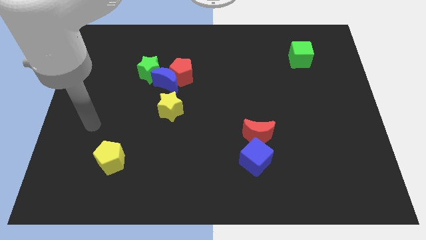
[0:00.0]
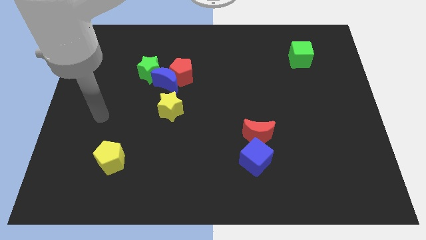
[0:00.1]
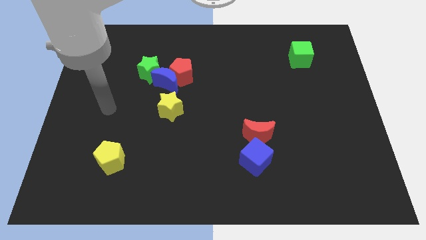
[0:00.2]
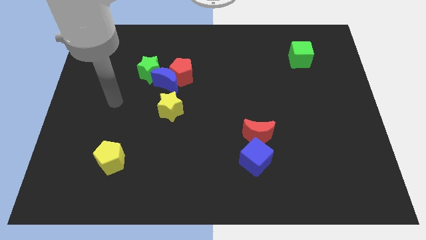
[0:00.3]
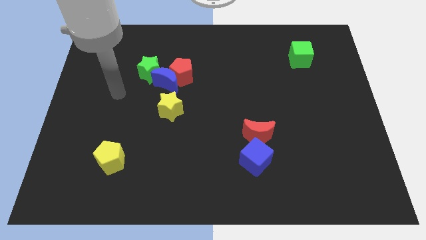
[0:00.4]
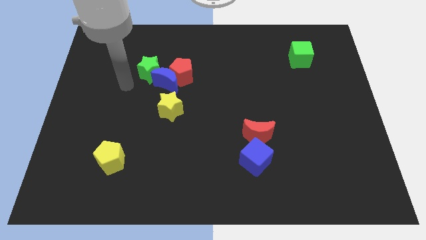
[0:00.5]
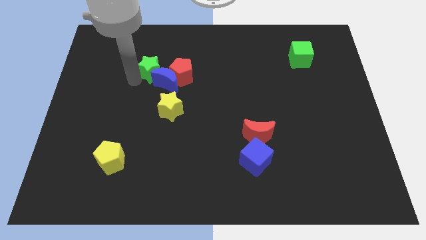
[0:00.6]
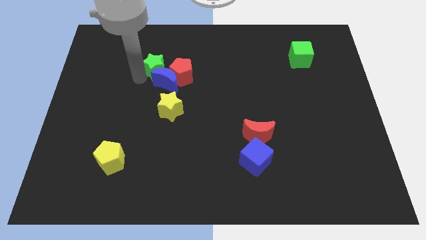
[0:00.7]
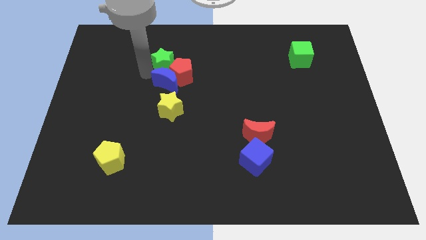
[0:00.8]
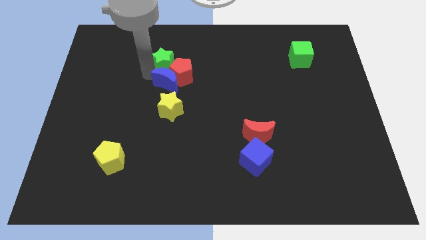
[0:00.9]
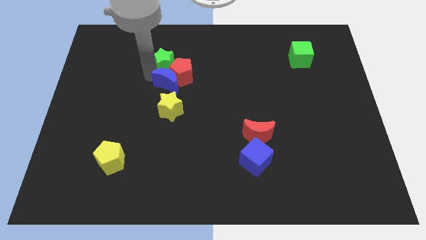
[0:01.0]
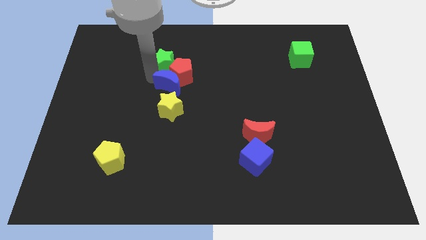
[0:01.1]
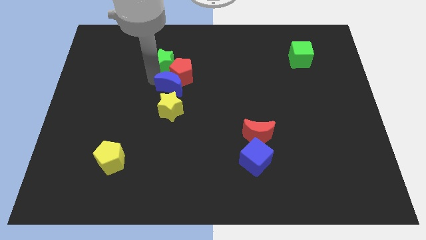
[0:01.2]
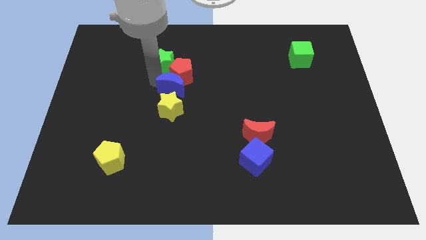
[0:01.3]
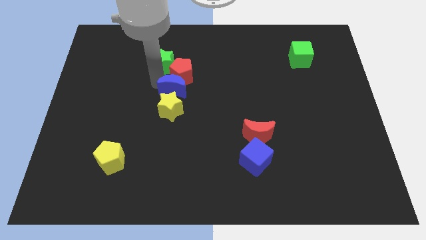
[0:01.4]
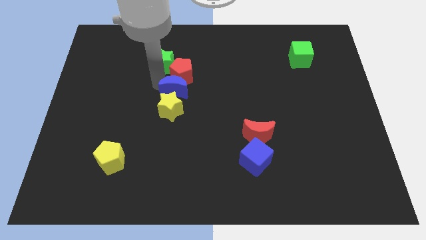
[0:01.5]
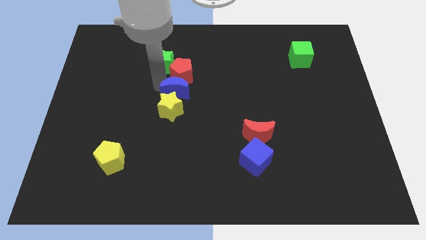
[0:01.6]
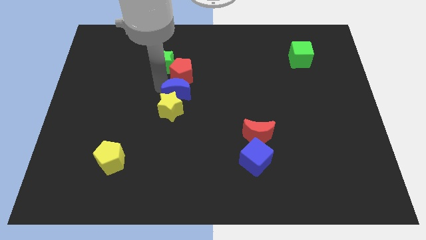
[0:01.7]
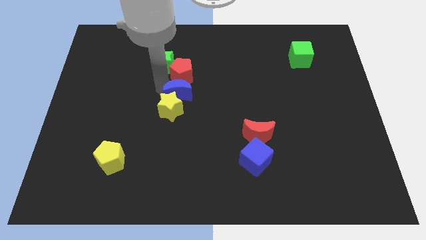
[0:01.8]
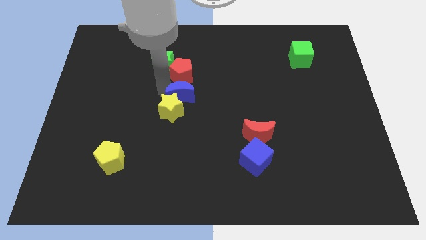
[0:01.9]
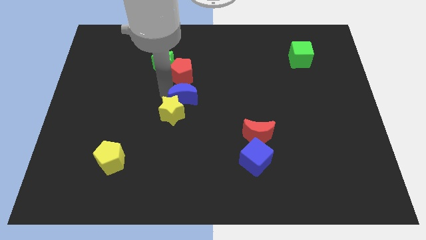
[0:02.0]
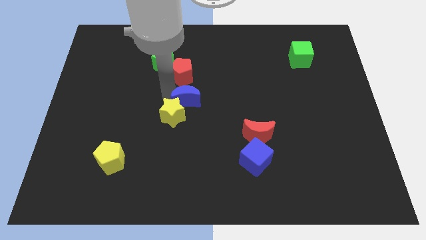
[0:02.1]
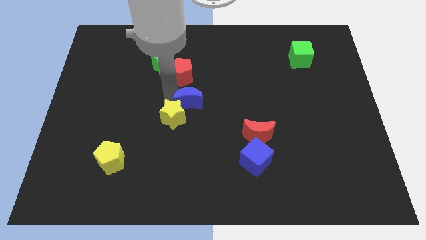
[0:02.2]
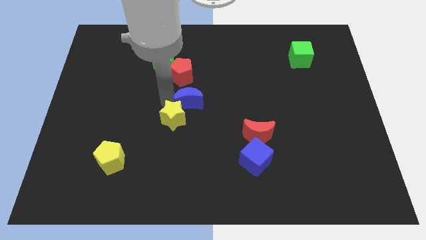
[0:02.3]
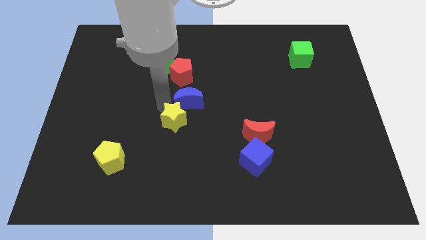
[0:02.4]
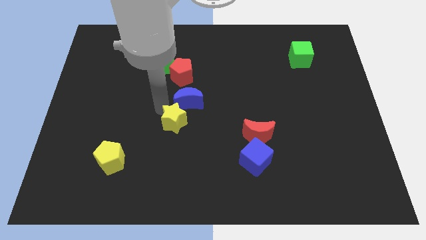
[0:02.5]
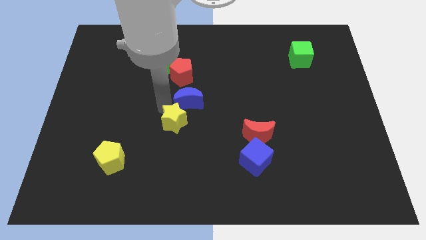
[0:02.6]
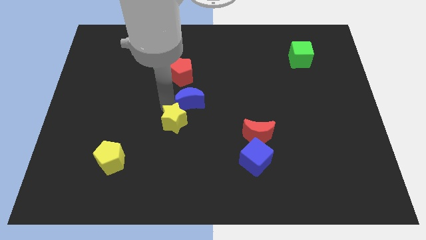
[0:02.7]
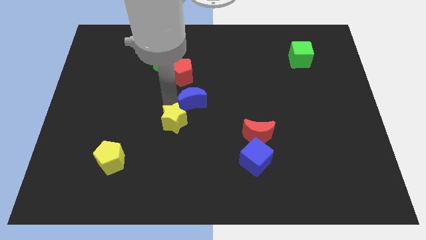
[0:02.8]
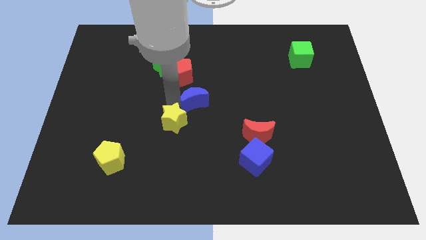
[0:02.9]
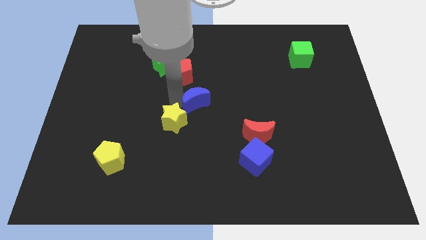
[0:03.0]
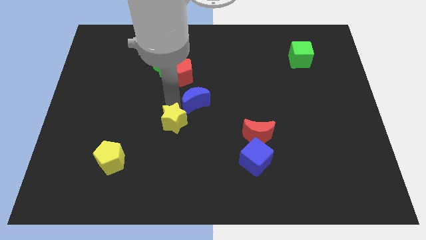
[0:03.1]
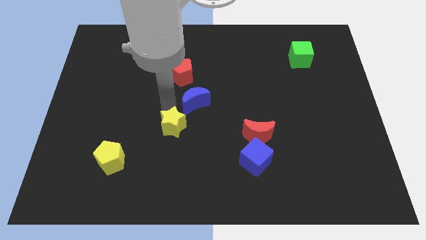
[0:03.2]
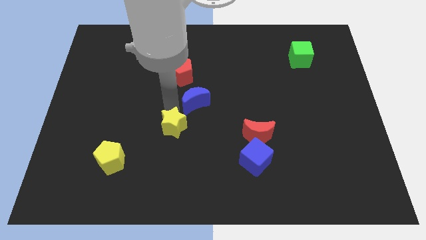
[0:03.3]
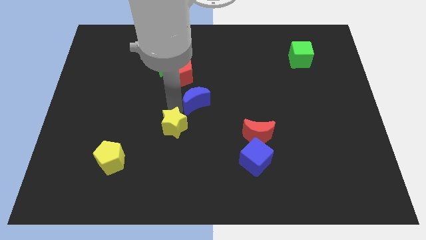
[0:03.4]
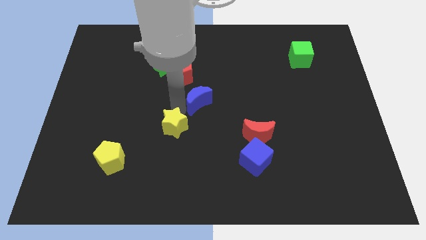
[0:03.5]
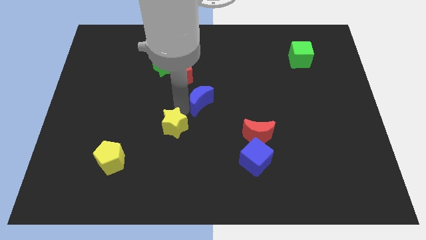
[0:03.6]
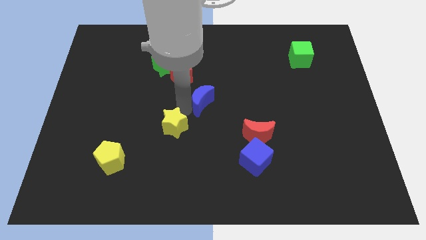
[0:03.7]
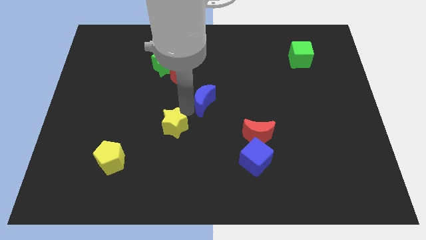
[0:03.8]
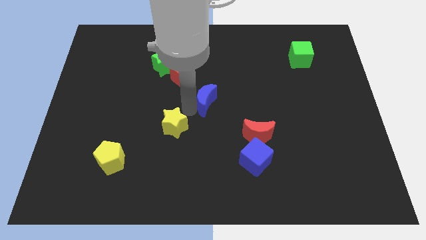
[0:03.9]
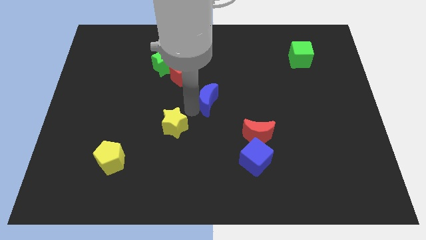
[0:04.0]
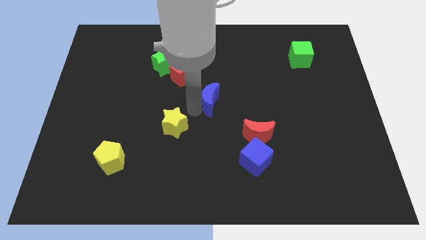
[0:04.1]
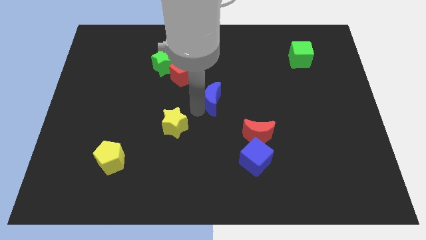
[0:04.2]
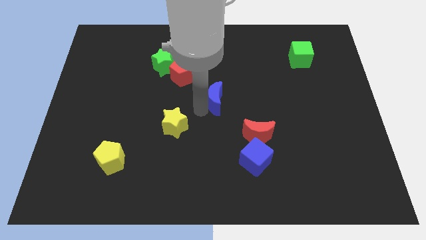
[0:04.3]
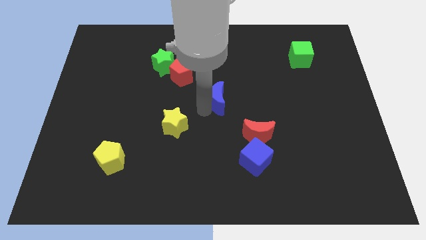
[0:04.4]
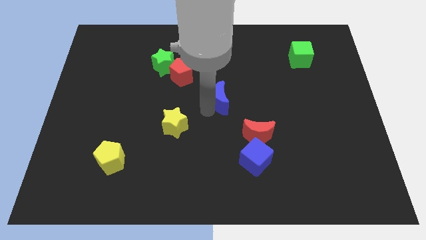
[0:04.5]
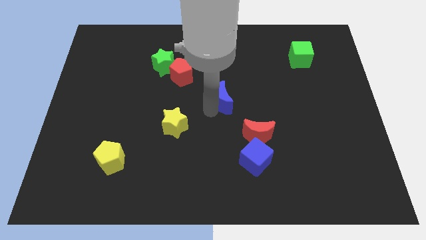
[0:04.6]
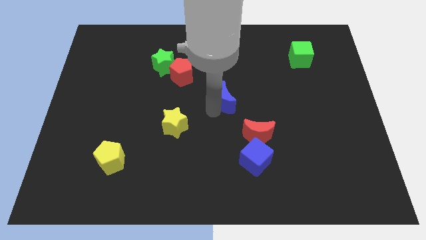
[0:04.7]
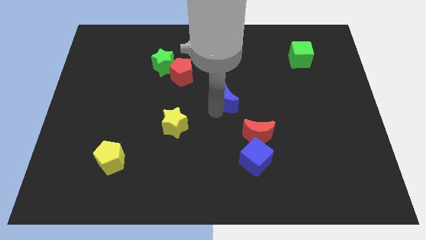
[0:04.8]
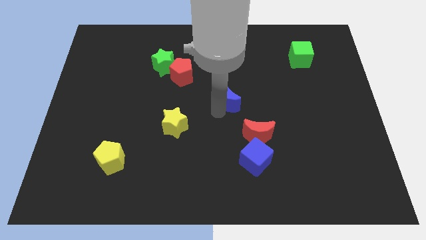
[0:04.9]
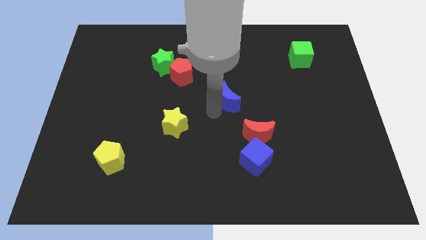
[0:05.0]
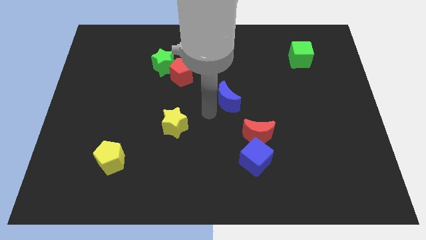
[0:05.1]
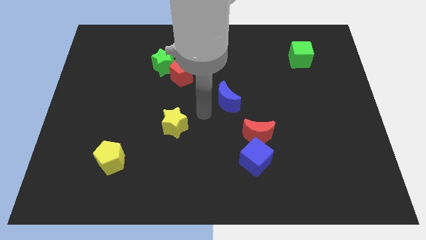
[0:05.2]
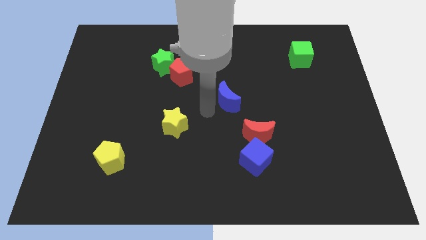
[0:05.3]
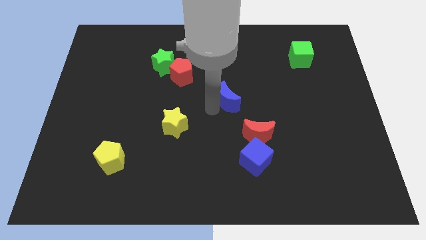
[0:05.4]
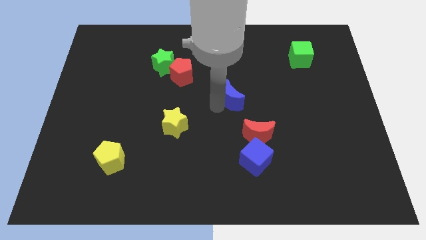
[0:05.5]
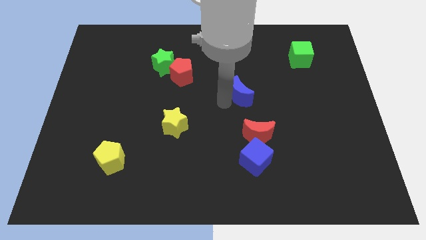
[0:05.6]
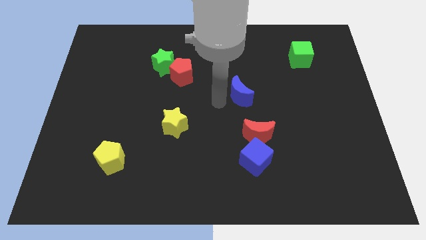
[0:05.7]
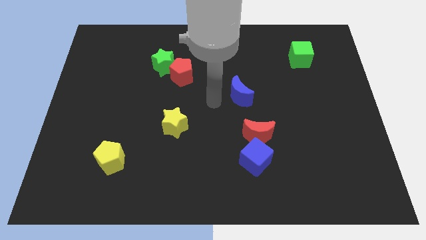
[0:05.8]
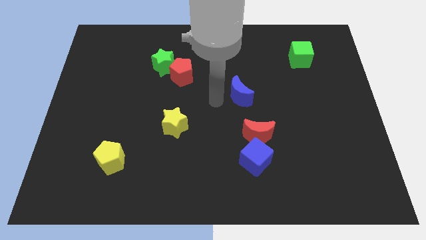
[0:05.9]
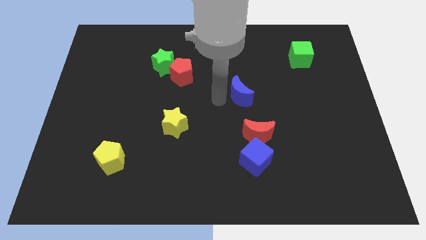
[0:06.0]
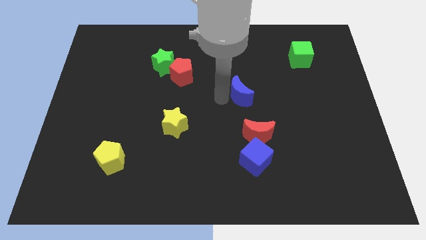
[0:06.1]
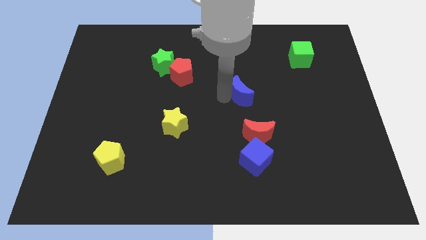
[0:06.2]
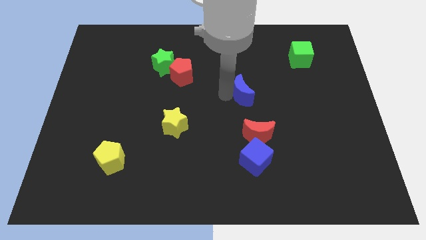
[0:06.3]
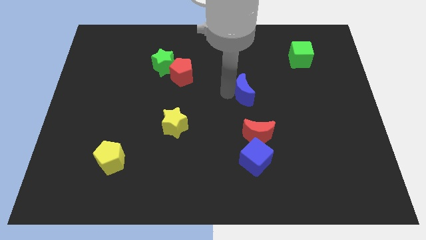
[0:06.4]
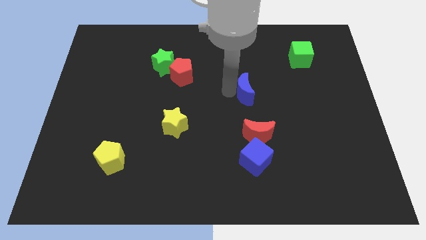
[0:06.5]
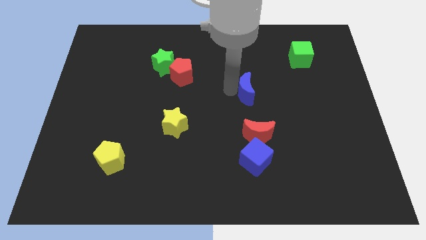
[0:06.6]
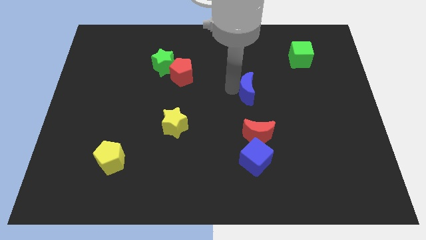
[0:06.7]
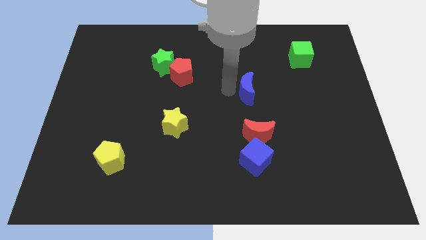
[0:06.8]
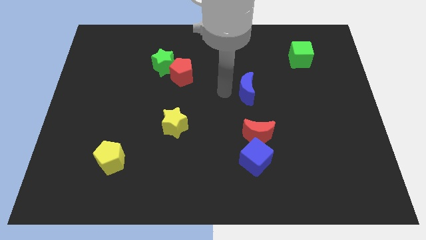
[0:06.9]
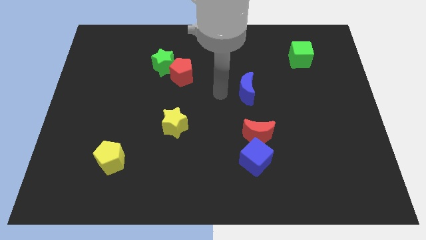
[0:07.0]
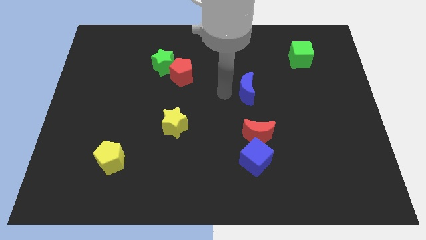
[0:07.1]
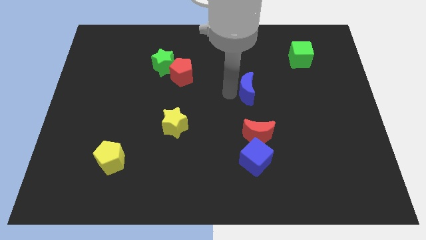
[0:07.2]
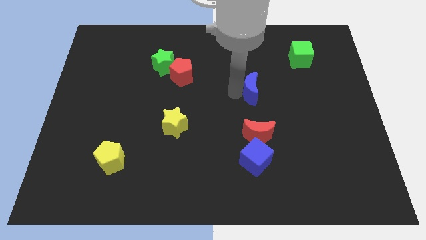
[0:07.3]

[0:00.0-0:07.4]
move the blue moon to the right

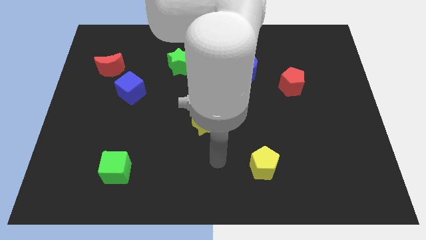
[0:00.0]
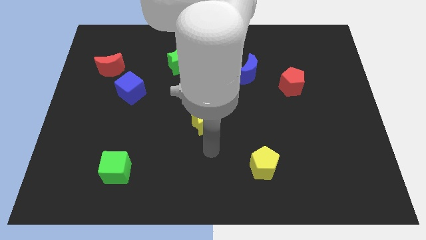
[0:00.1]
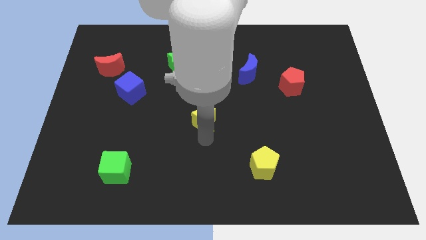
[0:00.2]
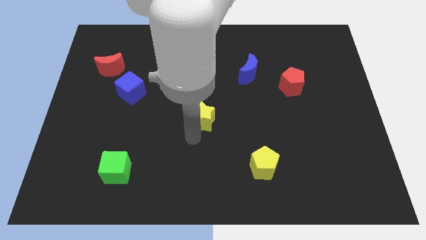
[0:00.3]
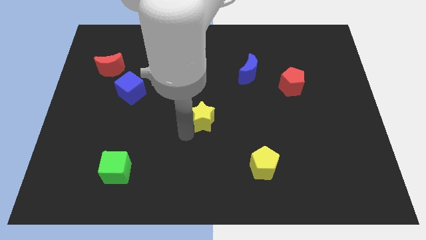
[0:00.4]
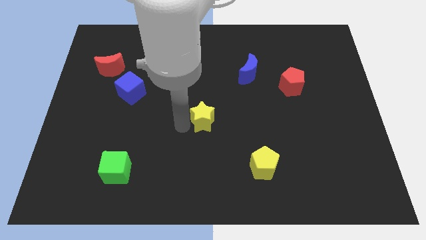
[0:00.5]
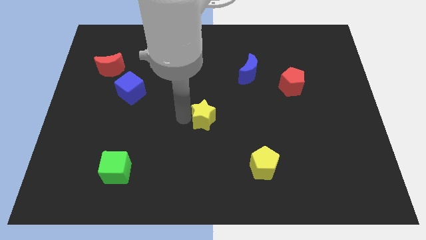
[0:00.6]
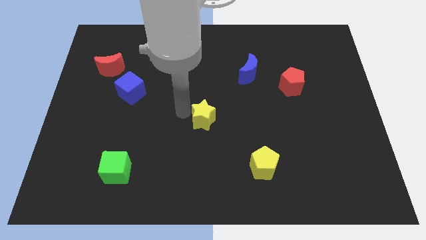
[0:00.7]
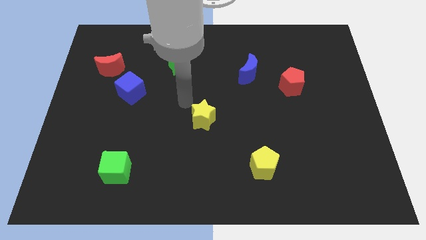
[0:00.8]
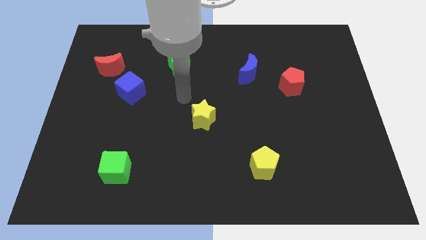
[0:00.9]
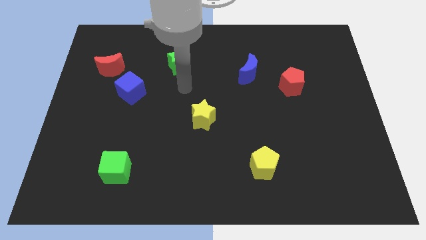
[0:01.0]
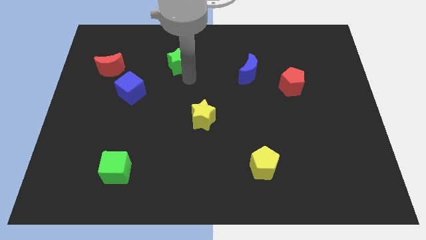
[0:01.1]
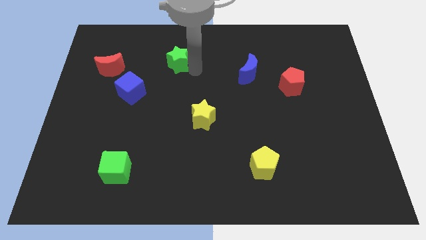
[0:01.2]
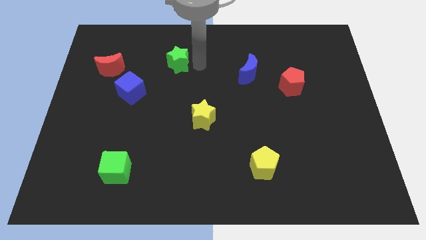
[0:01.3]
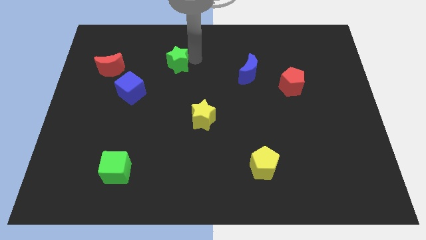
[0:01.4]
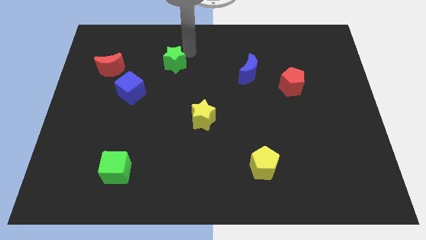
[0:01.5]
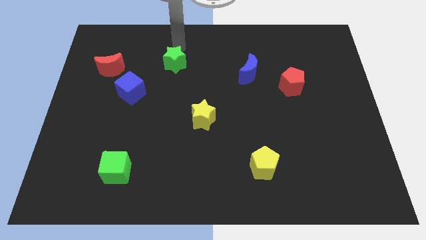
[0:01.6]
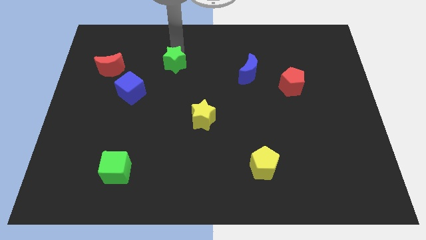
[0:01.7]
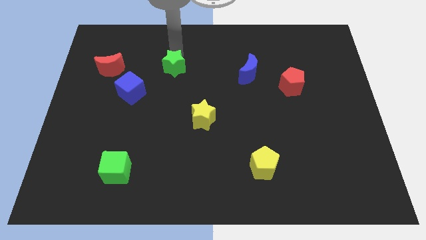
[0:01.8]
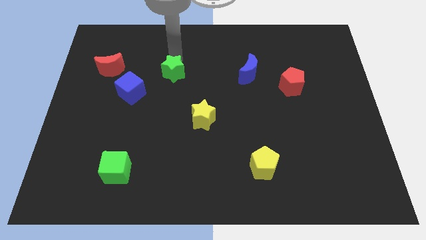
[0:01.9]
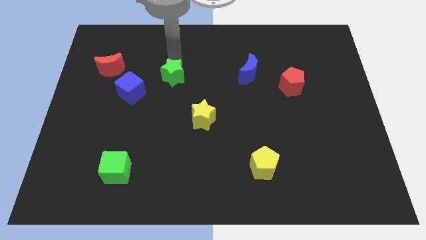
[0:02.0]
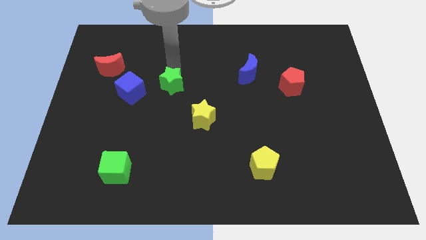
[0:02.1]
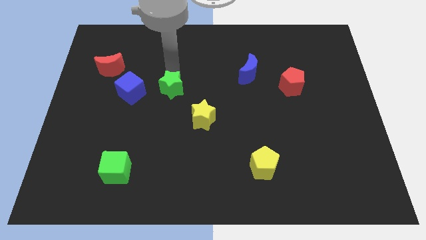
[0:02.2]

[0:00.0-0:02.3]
slightly push the green star downwards
